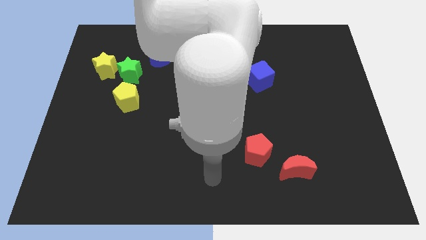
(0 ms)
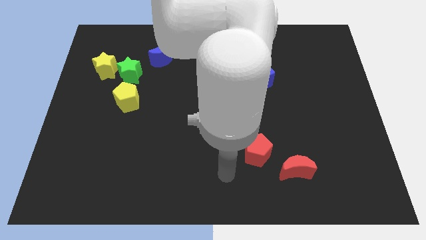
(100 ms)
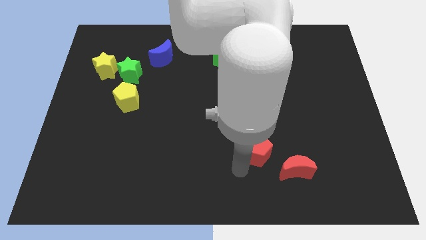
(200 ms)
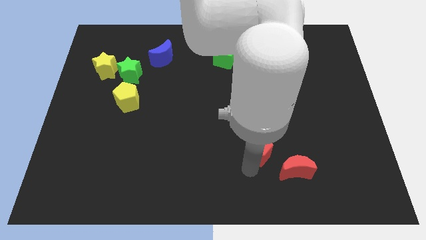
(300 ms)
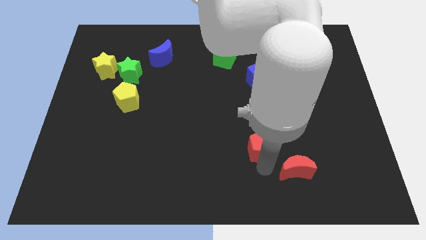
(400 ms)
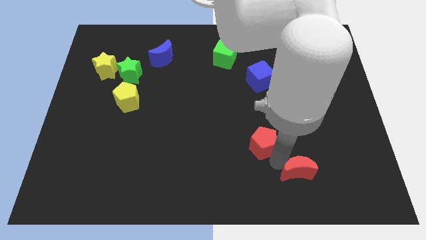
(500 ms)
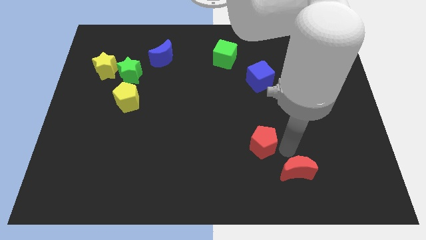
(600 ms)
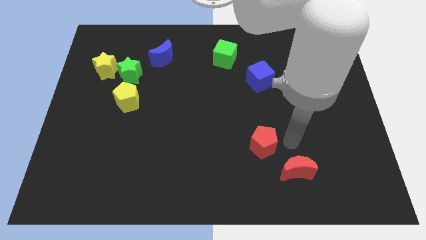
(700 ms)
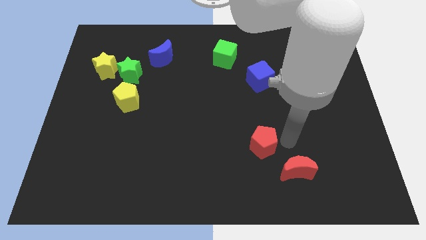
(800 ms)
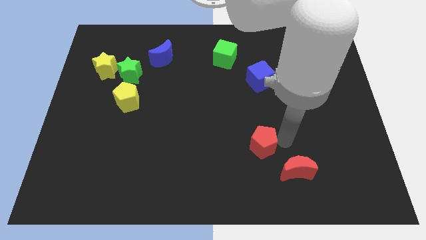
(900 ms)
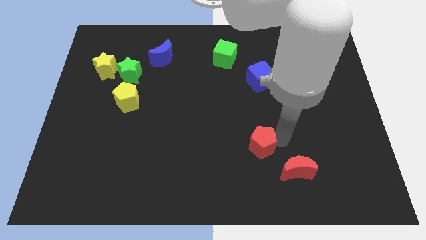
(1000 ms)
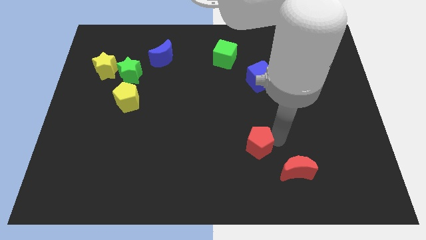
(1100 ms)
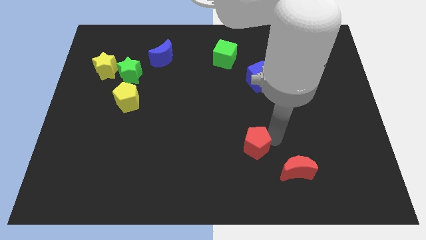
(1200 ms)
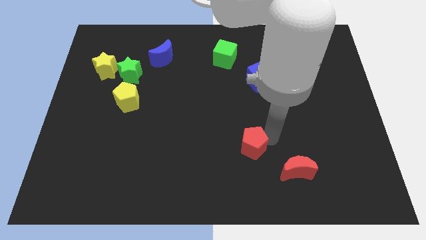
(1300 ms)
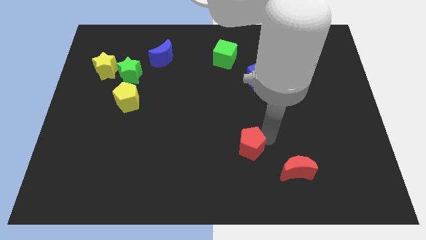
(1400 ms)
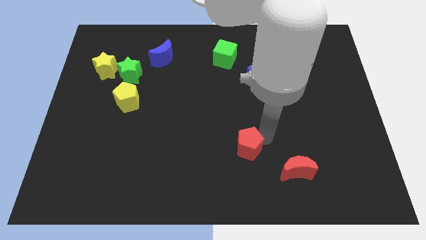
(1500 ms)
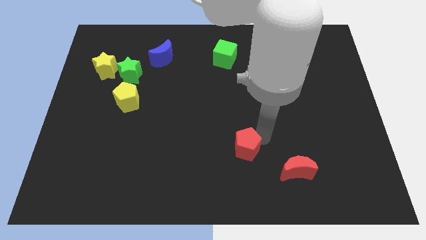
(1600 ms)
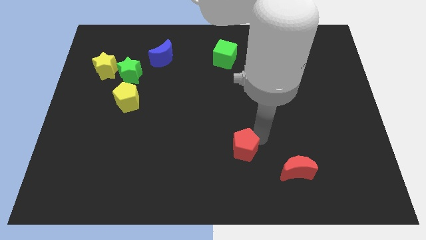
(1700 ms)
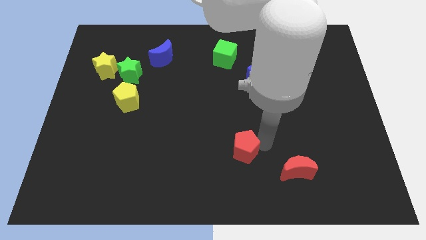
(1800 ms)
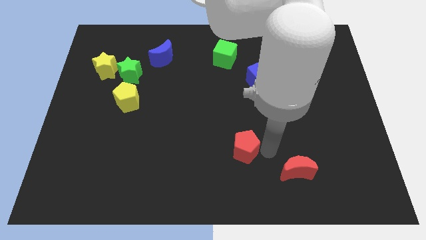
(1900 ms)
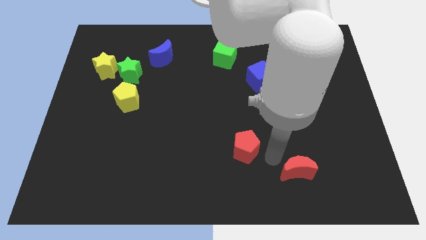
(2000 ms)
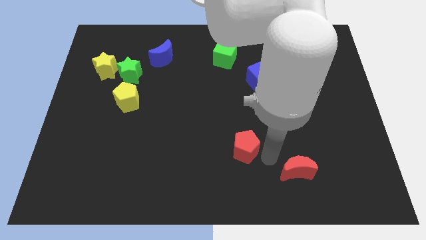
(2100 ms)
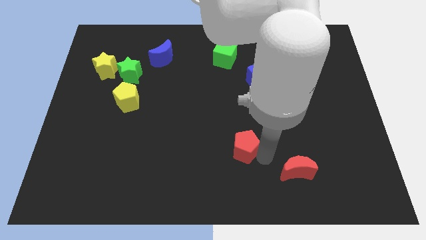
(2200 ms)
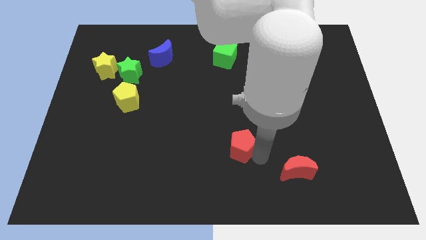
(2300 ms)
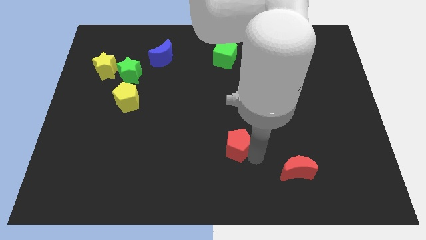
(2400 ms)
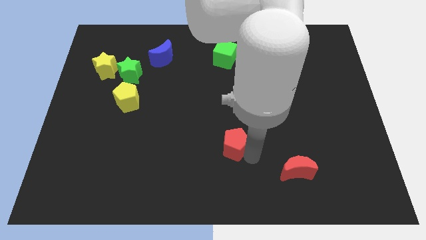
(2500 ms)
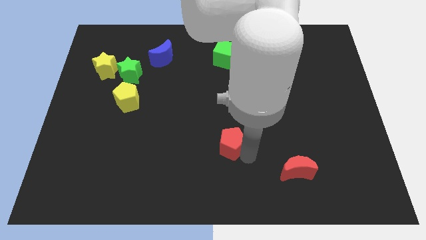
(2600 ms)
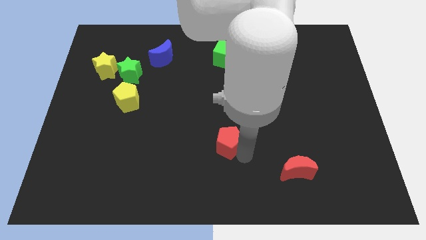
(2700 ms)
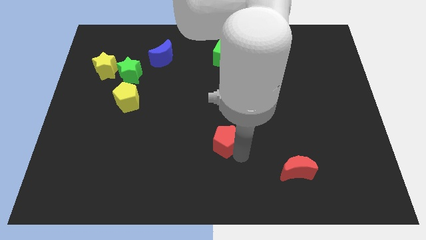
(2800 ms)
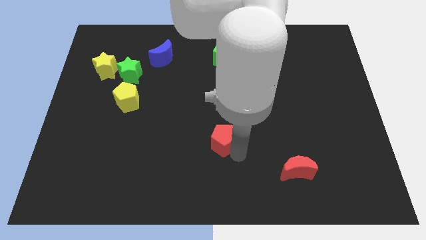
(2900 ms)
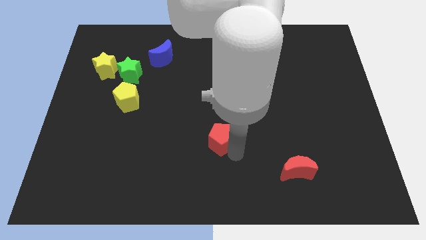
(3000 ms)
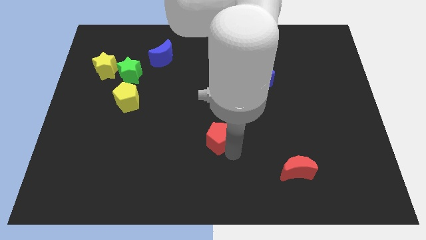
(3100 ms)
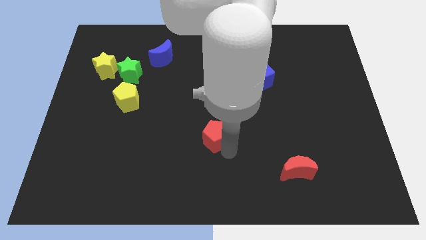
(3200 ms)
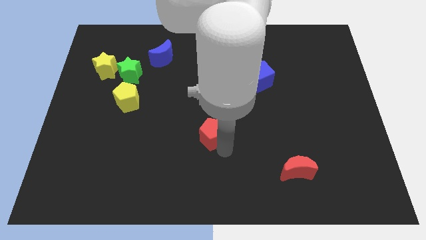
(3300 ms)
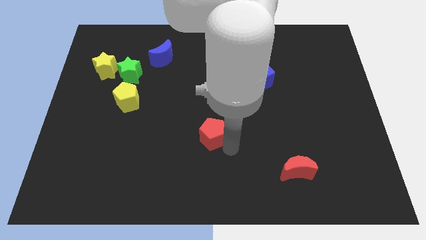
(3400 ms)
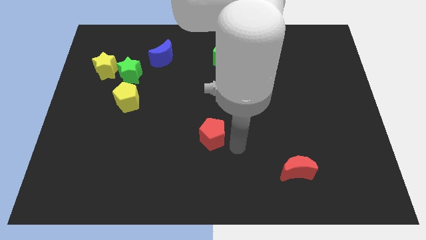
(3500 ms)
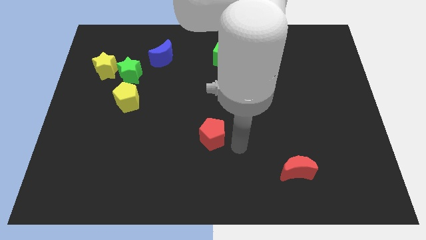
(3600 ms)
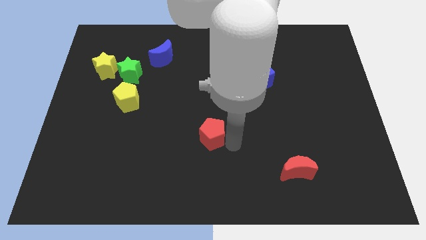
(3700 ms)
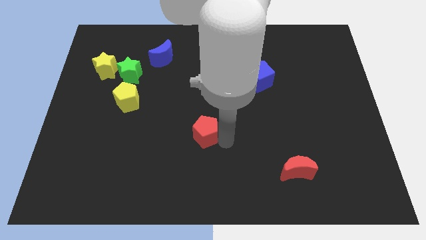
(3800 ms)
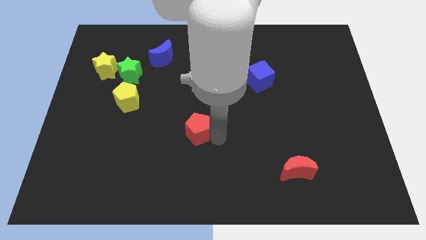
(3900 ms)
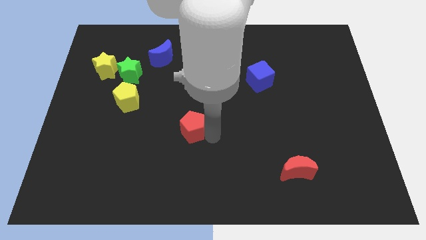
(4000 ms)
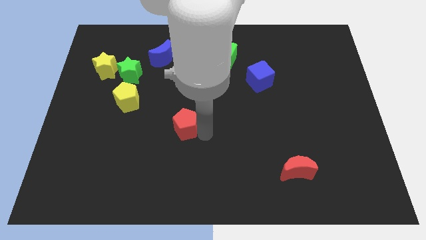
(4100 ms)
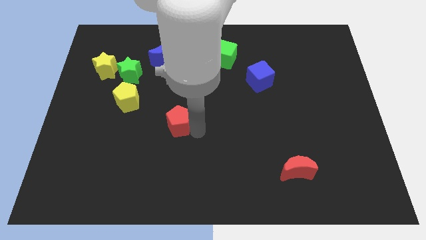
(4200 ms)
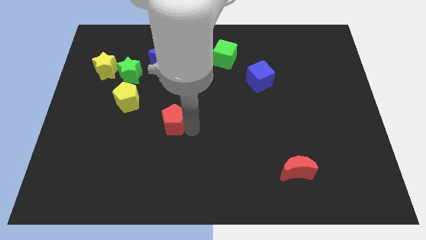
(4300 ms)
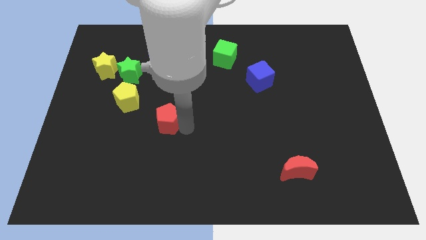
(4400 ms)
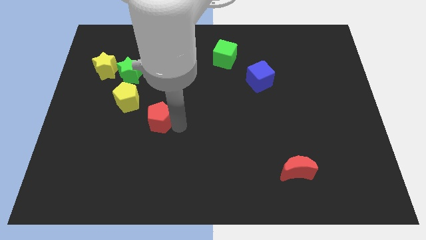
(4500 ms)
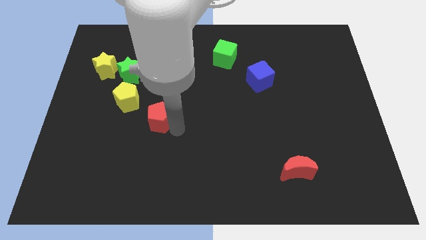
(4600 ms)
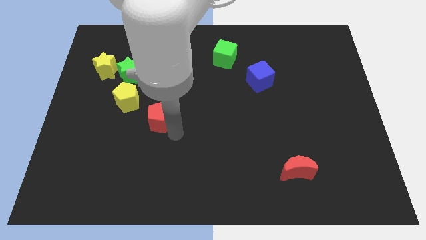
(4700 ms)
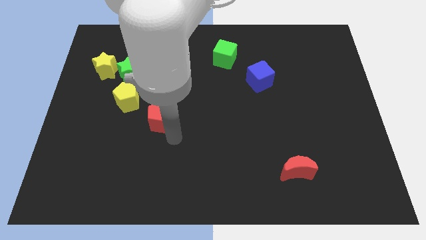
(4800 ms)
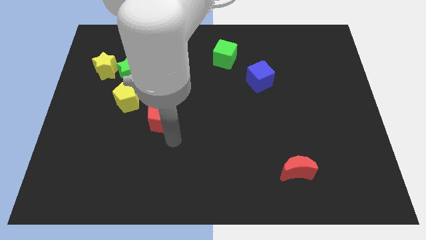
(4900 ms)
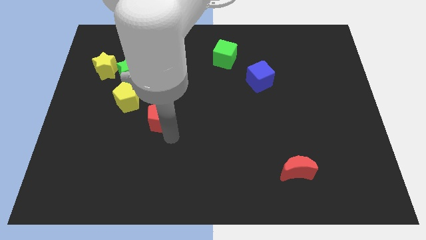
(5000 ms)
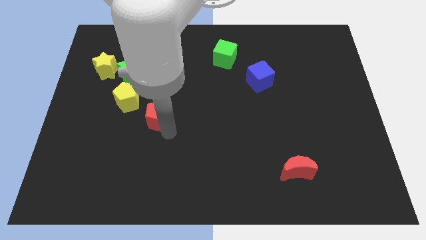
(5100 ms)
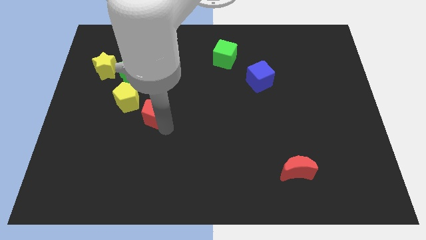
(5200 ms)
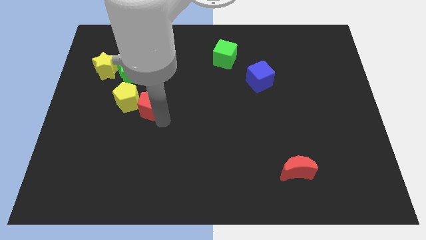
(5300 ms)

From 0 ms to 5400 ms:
push the red pentagon next to the yellow pentagon

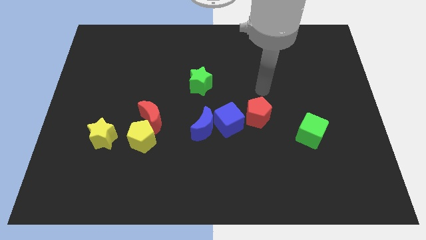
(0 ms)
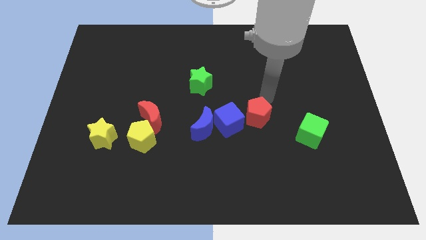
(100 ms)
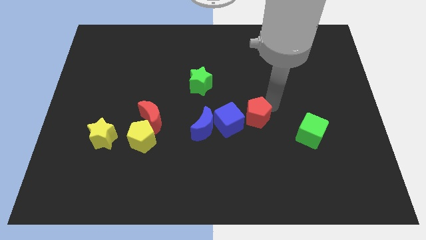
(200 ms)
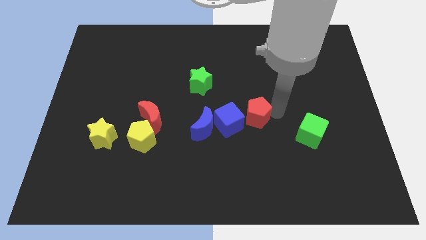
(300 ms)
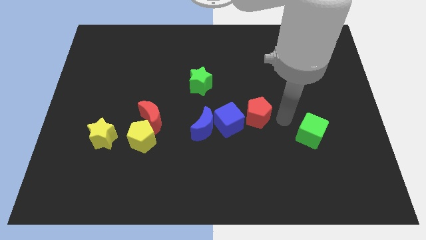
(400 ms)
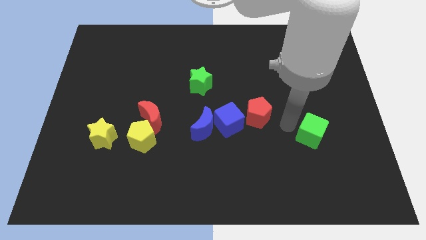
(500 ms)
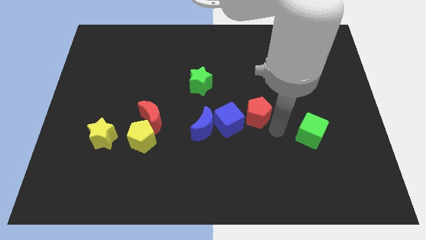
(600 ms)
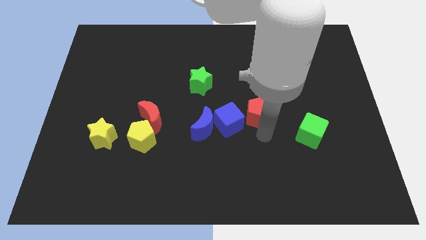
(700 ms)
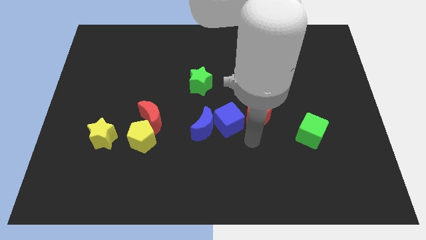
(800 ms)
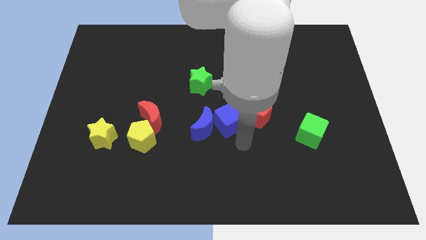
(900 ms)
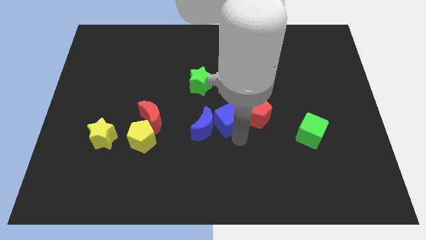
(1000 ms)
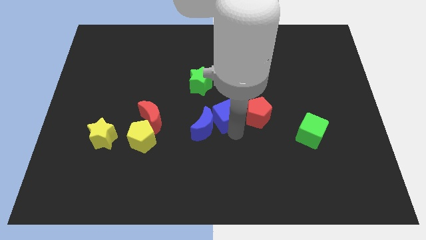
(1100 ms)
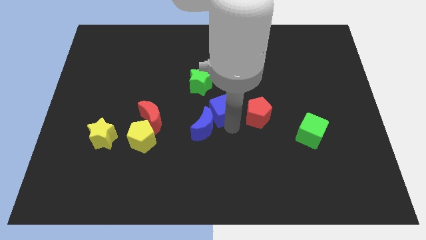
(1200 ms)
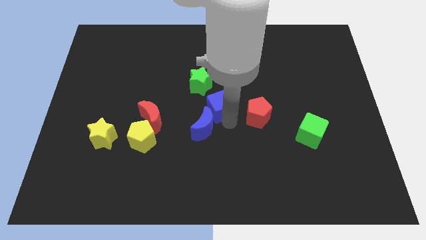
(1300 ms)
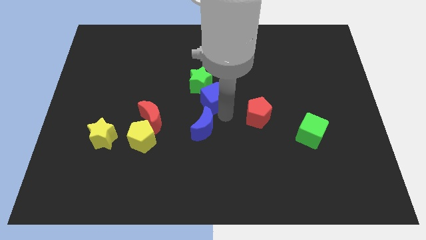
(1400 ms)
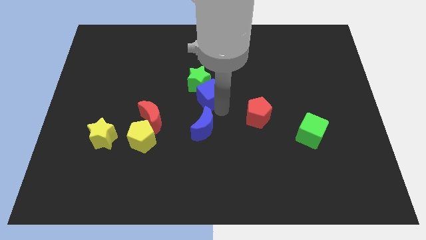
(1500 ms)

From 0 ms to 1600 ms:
put the blue cube to the green star

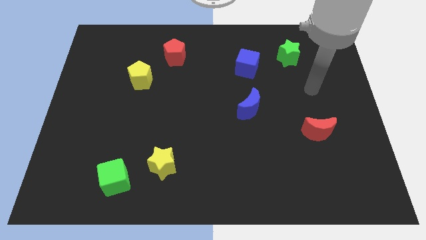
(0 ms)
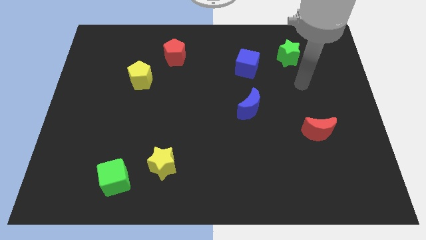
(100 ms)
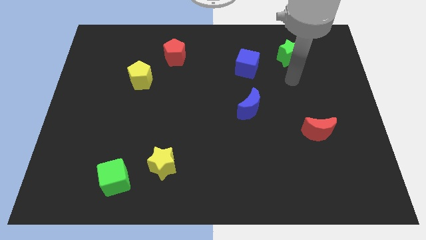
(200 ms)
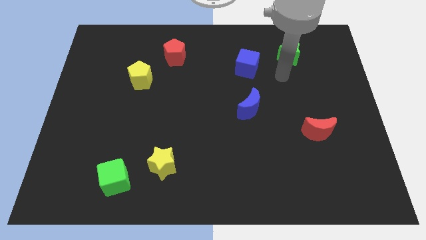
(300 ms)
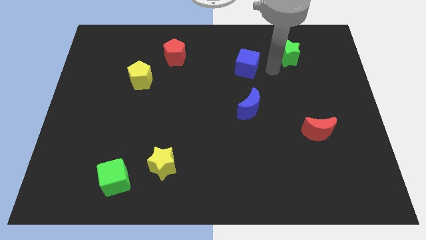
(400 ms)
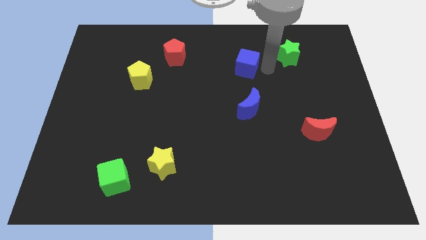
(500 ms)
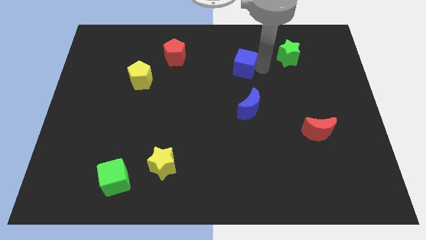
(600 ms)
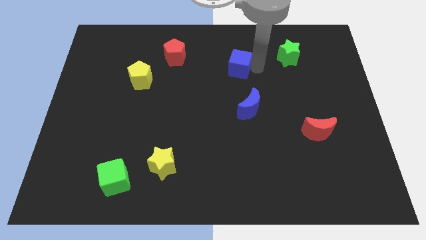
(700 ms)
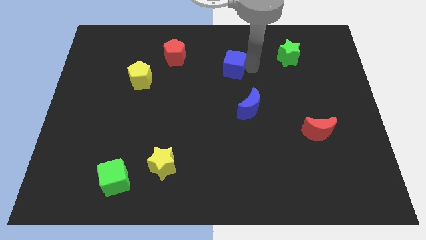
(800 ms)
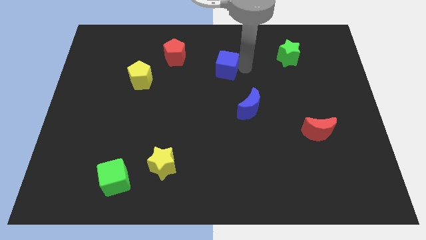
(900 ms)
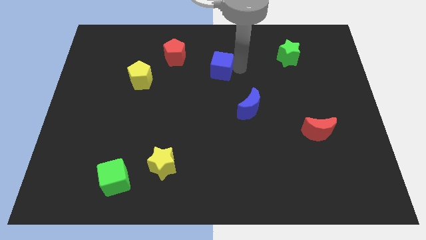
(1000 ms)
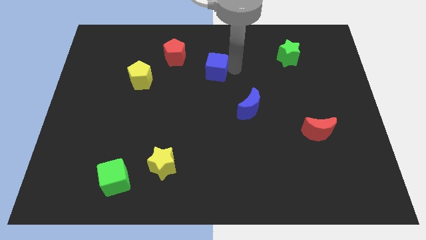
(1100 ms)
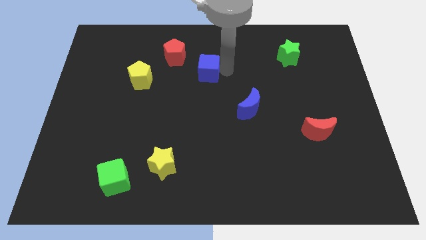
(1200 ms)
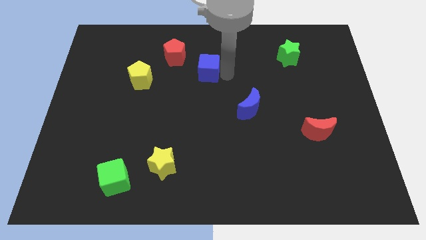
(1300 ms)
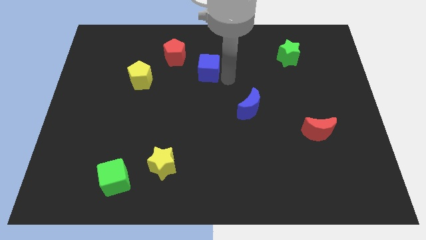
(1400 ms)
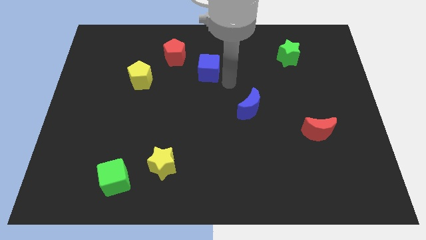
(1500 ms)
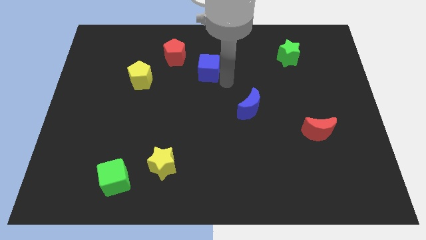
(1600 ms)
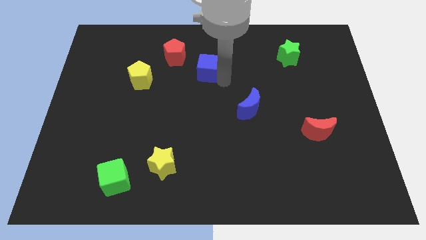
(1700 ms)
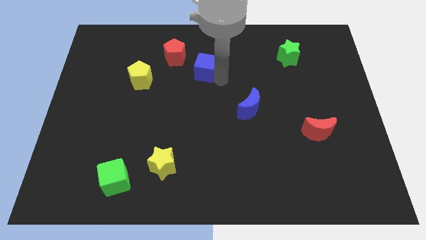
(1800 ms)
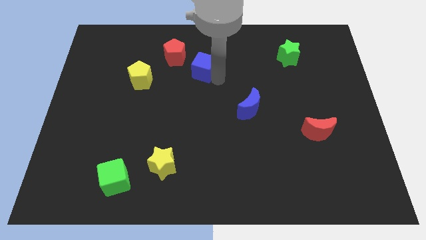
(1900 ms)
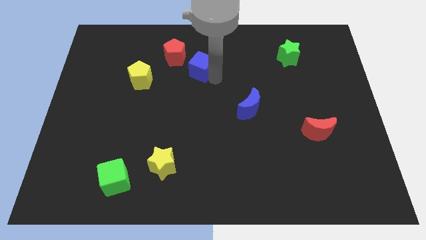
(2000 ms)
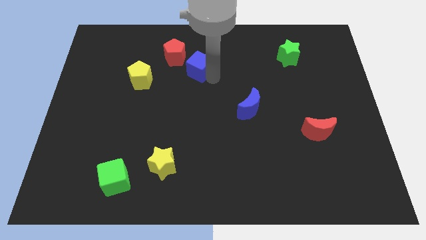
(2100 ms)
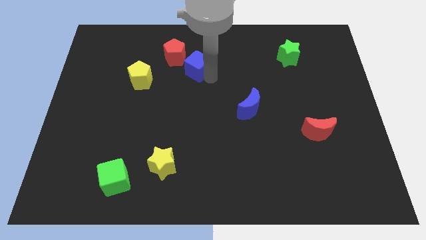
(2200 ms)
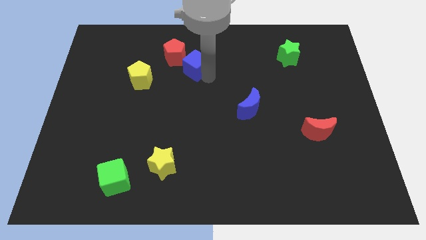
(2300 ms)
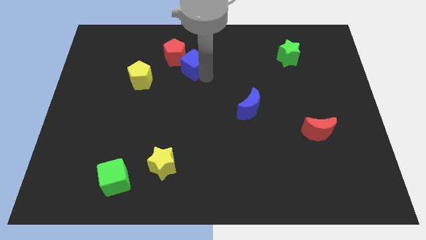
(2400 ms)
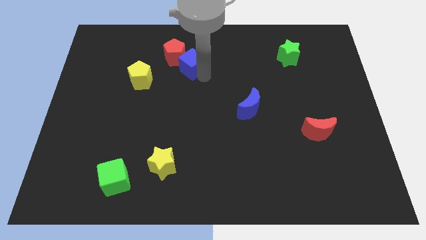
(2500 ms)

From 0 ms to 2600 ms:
push the blue cube to the red pentagon
